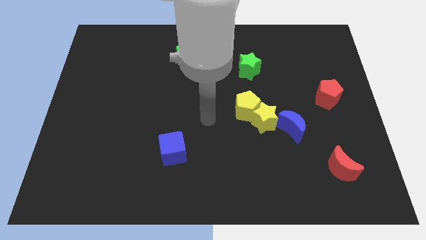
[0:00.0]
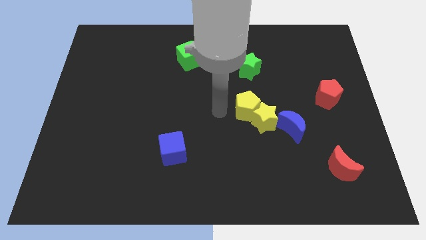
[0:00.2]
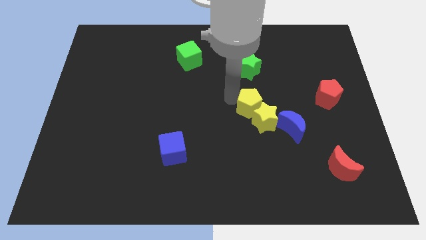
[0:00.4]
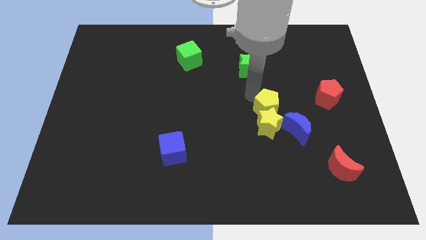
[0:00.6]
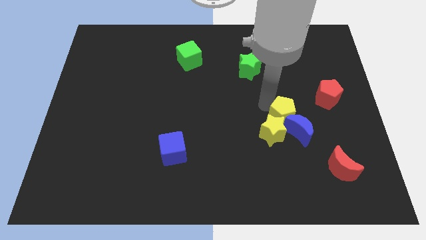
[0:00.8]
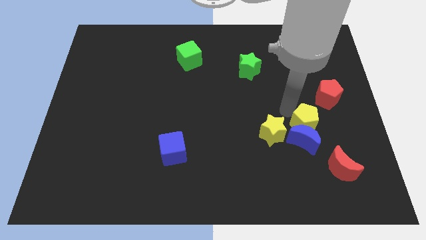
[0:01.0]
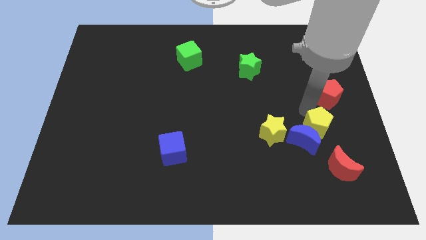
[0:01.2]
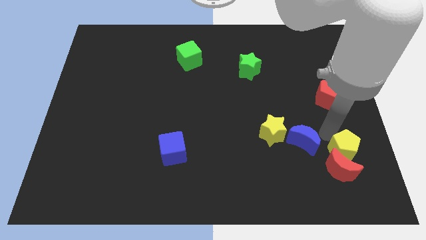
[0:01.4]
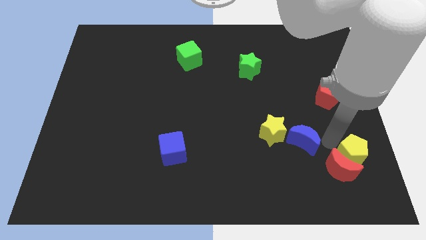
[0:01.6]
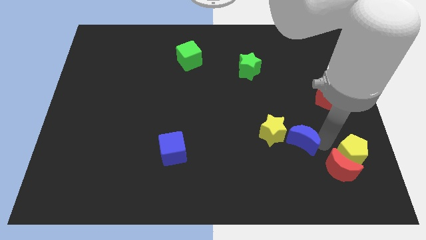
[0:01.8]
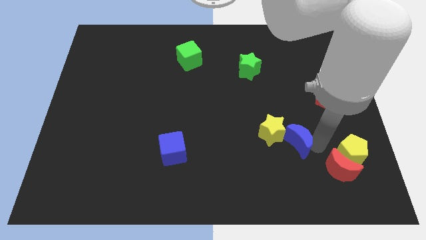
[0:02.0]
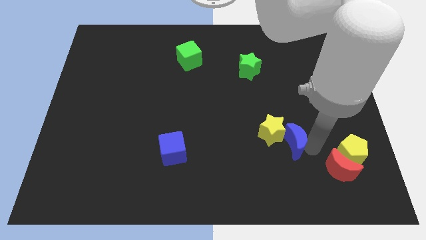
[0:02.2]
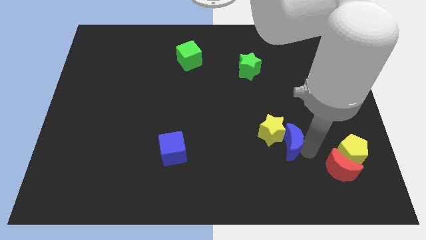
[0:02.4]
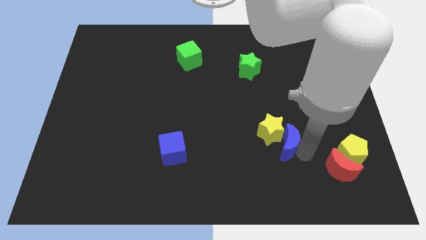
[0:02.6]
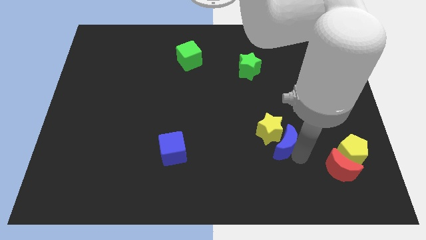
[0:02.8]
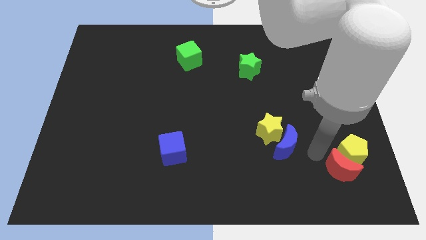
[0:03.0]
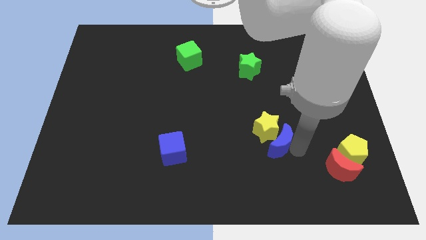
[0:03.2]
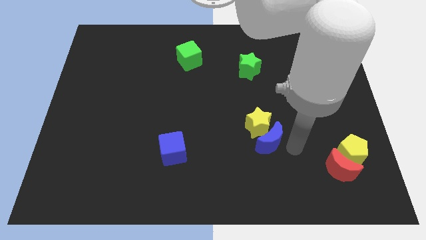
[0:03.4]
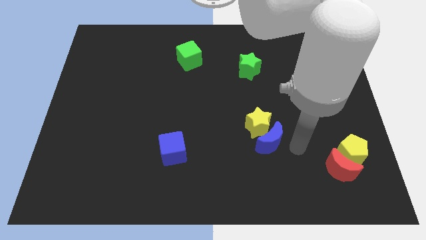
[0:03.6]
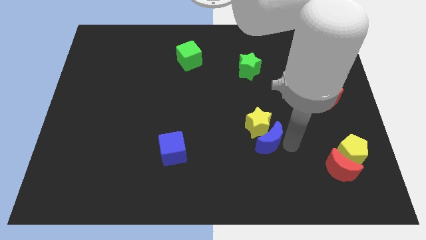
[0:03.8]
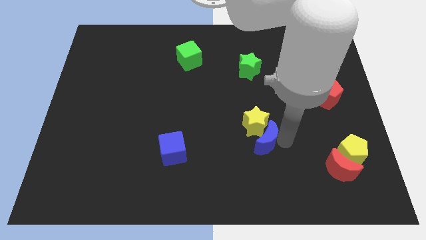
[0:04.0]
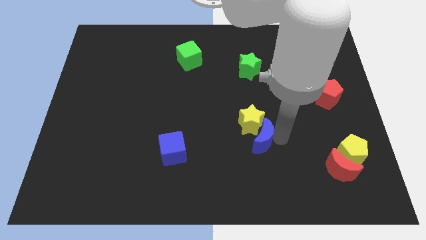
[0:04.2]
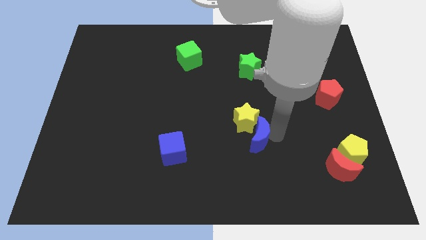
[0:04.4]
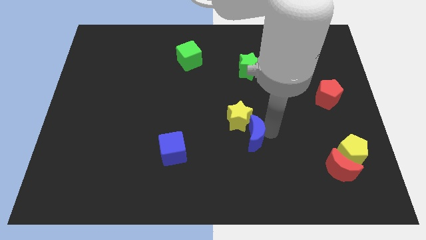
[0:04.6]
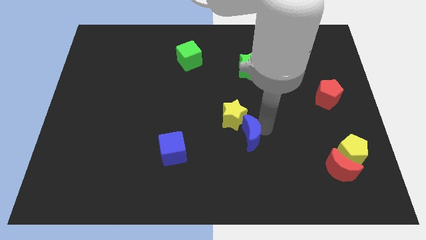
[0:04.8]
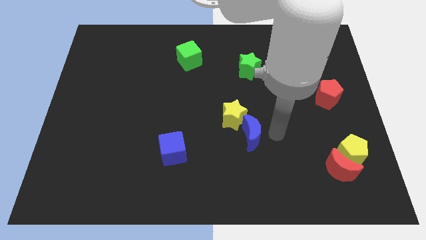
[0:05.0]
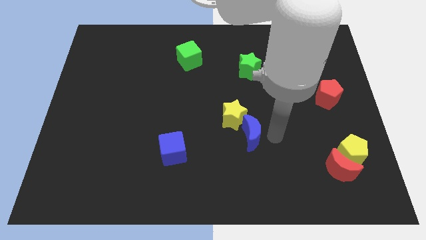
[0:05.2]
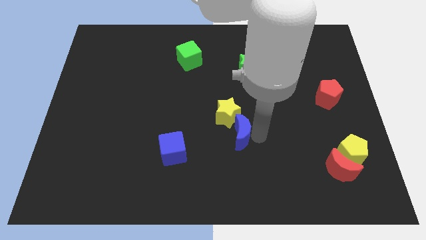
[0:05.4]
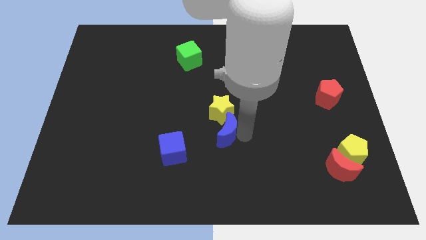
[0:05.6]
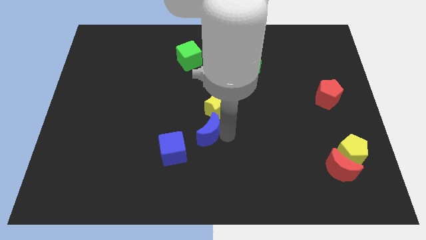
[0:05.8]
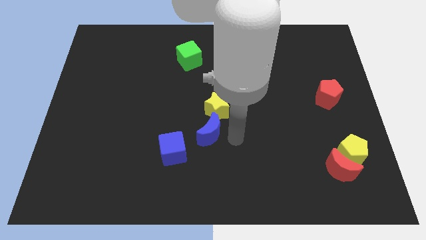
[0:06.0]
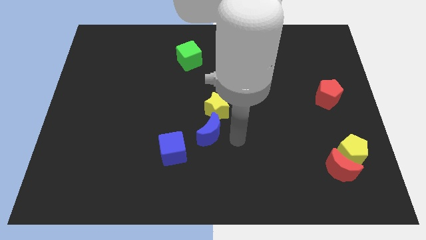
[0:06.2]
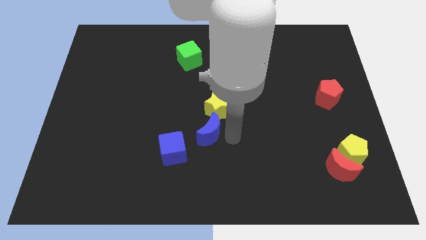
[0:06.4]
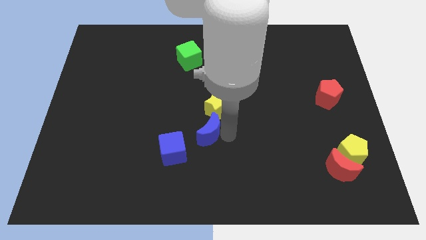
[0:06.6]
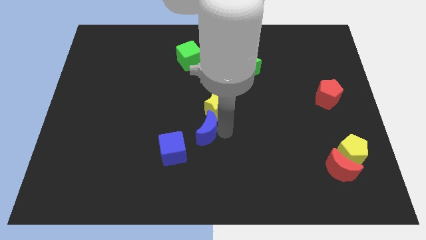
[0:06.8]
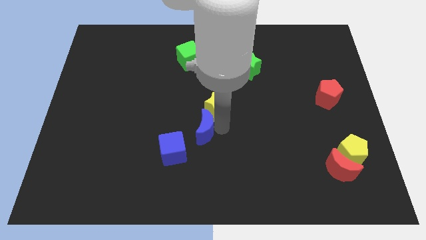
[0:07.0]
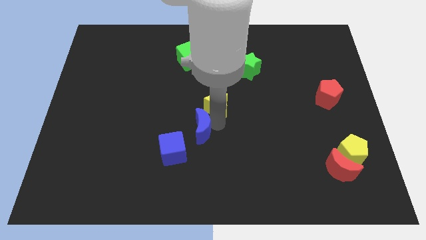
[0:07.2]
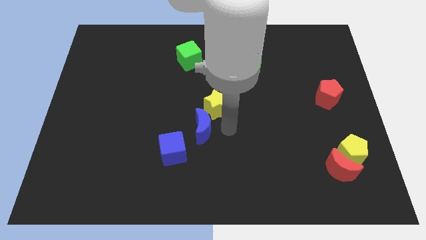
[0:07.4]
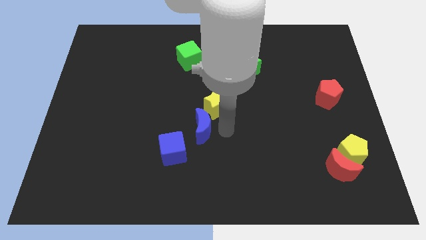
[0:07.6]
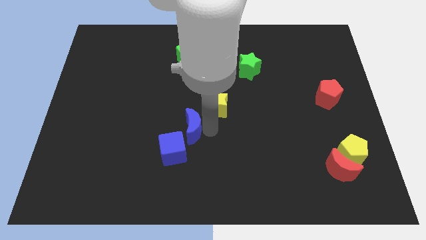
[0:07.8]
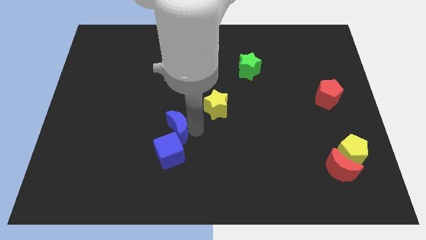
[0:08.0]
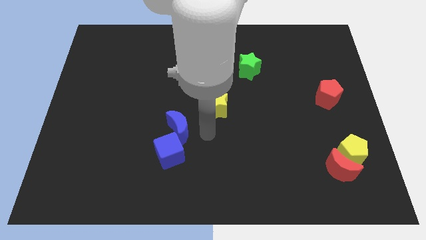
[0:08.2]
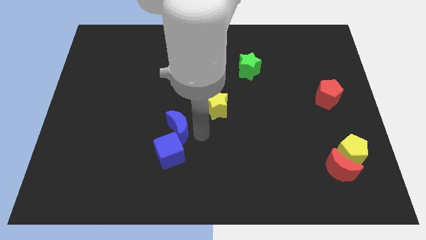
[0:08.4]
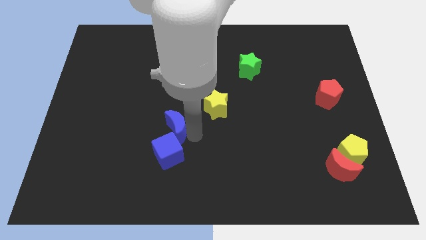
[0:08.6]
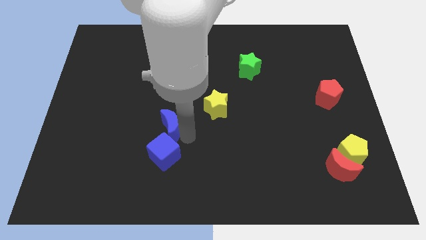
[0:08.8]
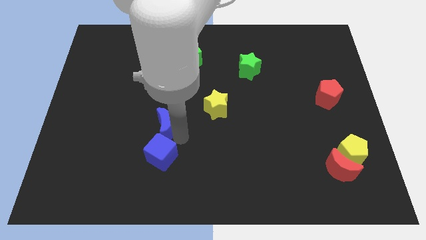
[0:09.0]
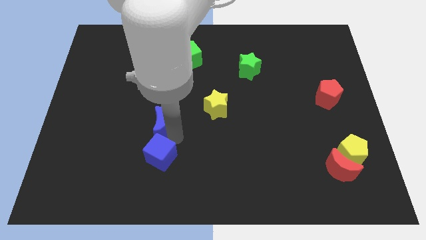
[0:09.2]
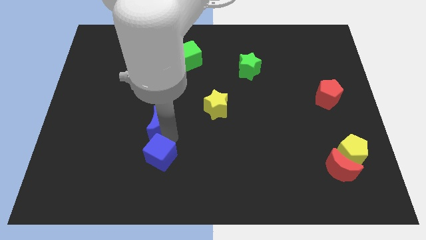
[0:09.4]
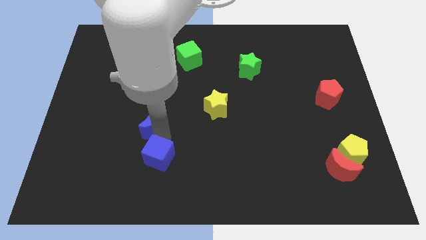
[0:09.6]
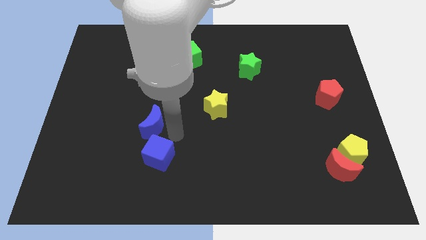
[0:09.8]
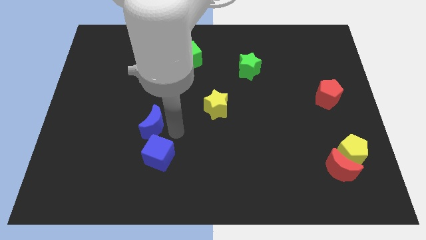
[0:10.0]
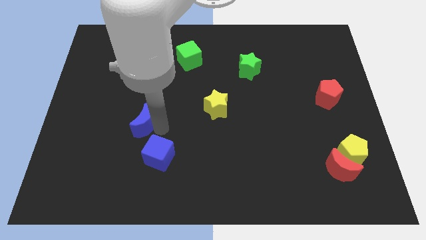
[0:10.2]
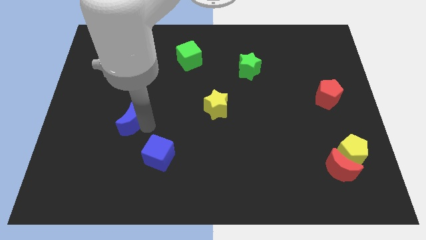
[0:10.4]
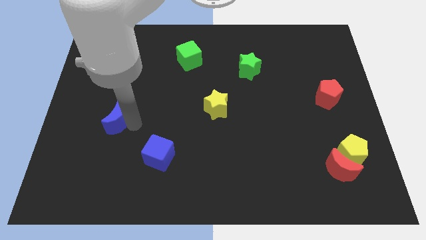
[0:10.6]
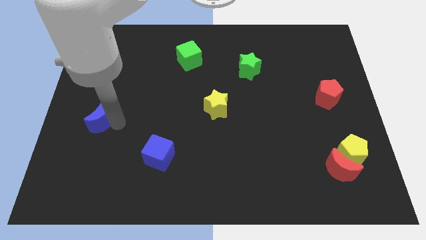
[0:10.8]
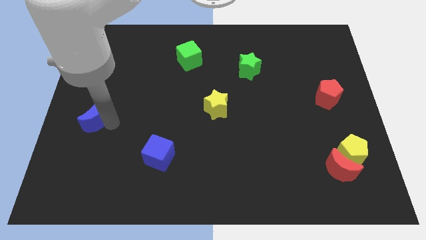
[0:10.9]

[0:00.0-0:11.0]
push the blue moon to the left side of the board

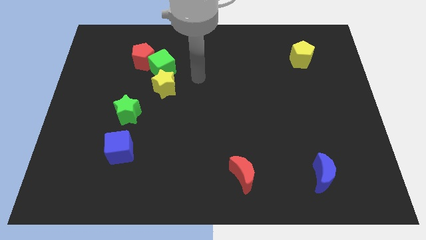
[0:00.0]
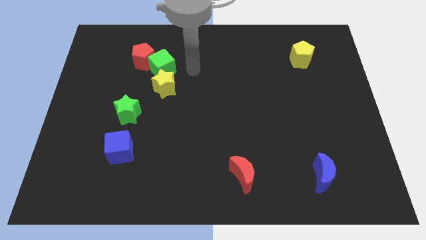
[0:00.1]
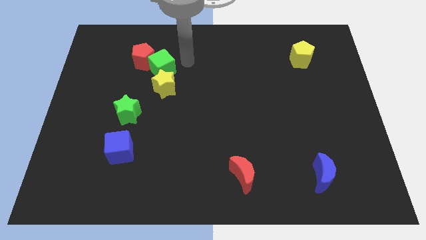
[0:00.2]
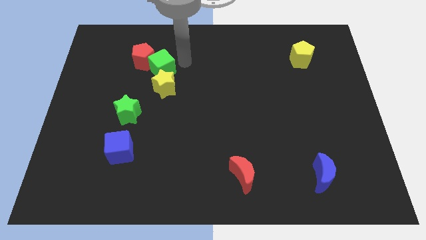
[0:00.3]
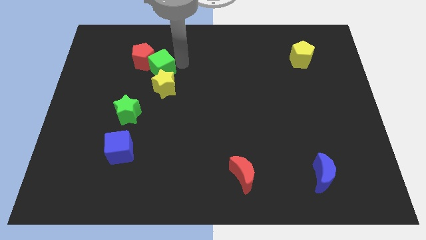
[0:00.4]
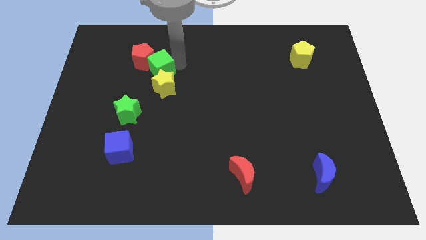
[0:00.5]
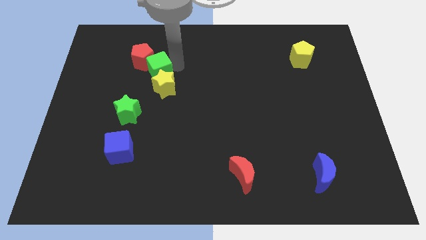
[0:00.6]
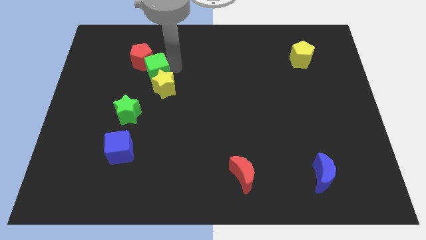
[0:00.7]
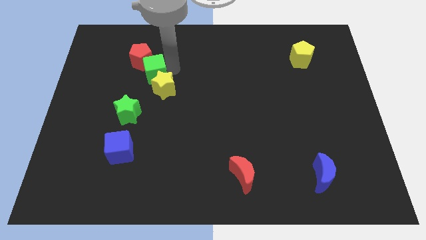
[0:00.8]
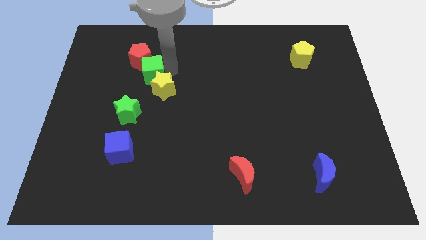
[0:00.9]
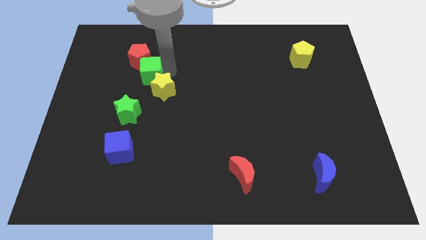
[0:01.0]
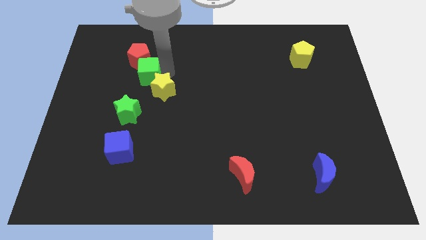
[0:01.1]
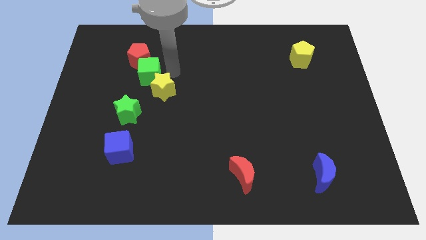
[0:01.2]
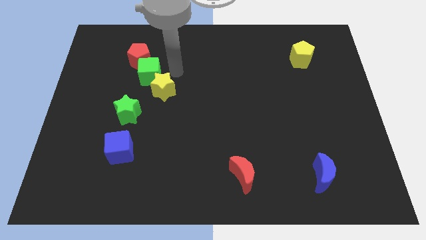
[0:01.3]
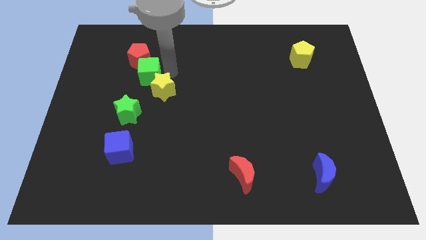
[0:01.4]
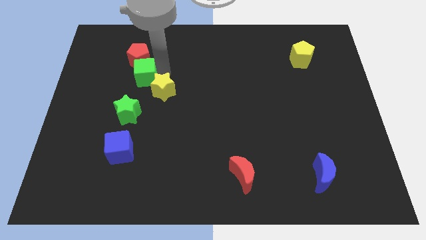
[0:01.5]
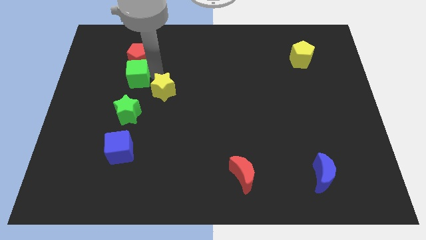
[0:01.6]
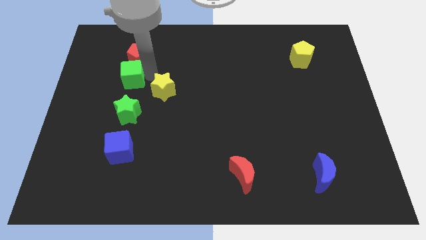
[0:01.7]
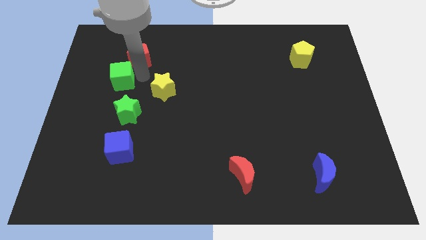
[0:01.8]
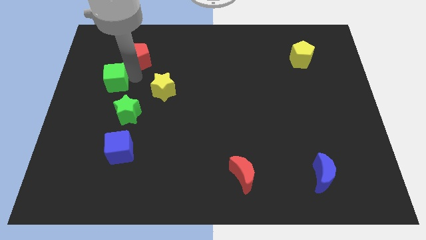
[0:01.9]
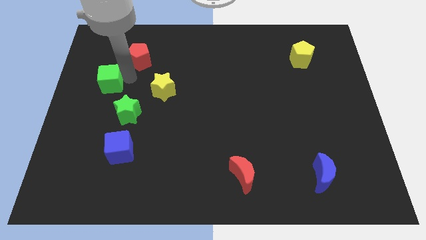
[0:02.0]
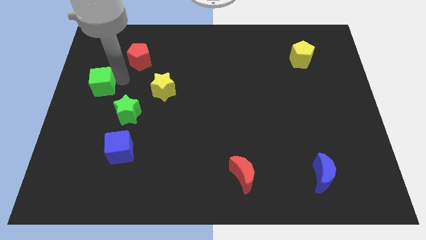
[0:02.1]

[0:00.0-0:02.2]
slide the green cube to the left side of the board
